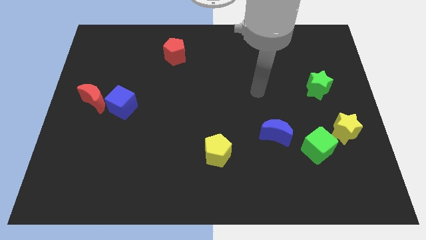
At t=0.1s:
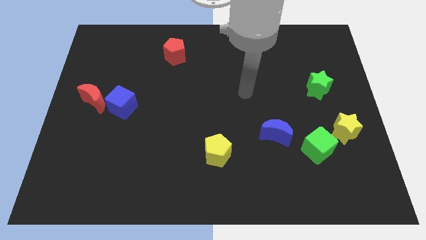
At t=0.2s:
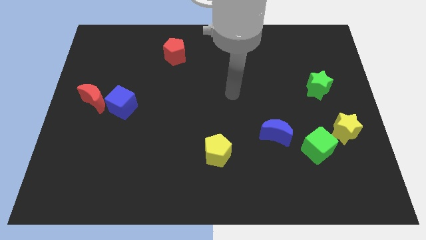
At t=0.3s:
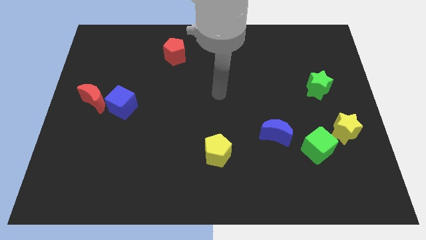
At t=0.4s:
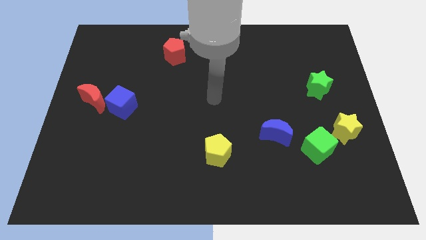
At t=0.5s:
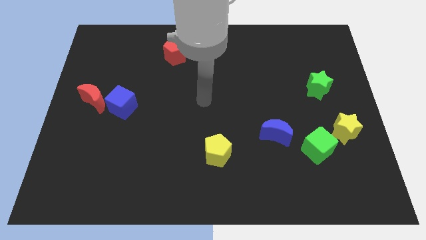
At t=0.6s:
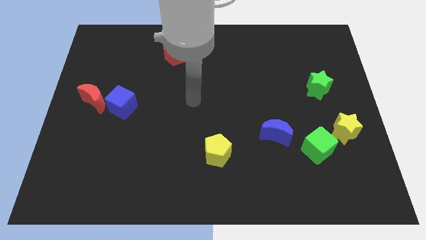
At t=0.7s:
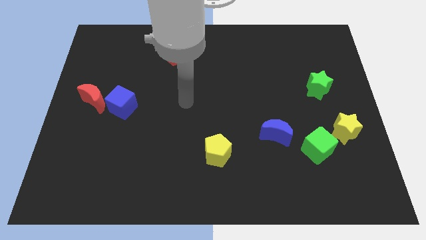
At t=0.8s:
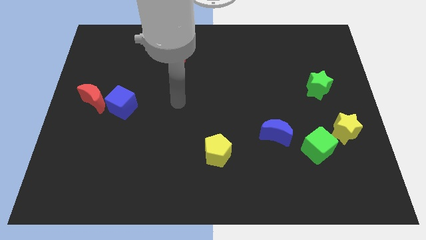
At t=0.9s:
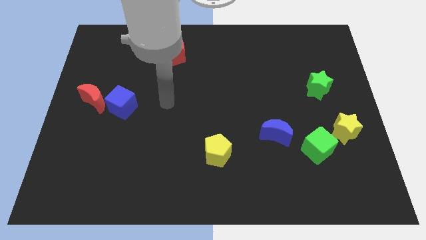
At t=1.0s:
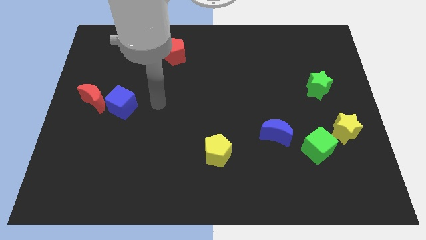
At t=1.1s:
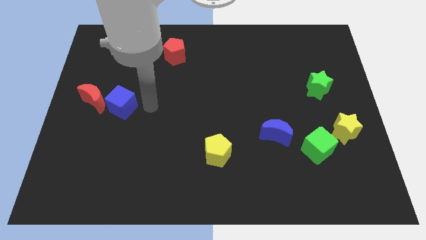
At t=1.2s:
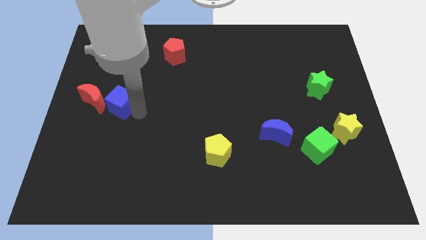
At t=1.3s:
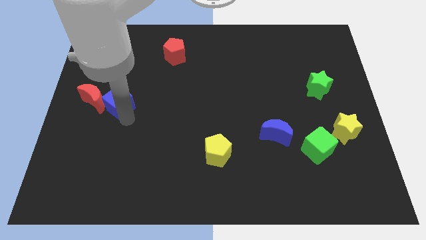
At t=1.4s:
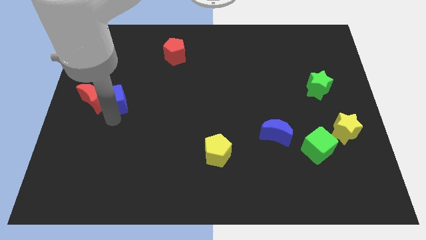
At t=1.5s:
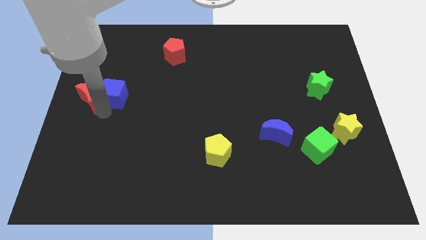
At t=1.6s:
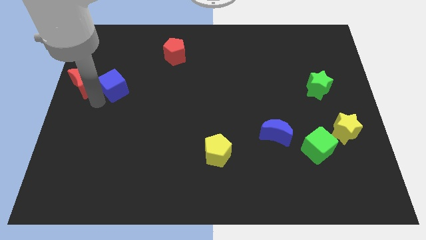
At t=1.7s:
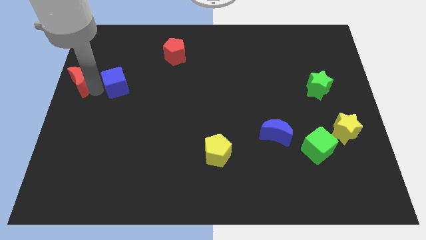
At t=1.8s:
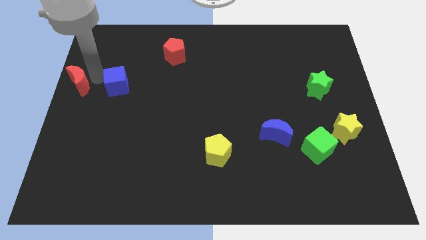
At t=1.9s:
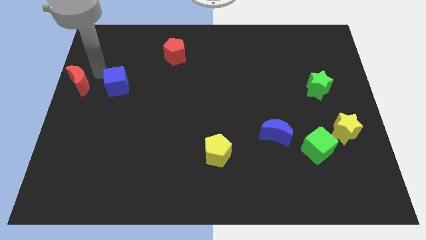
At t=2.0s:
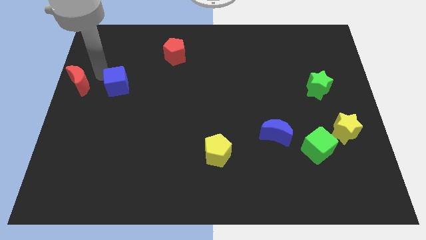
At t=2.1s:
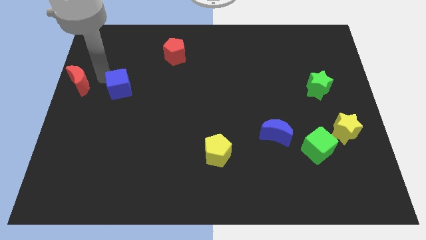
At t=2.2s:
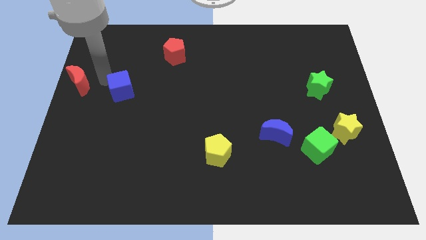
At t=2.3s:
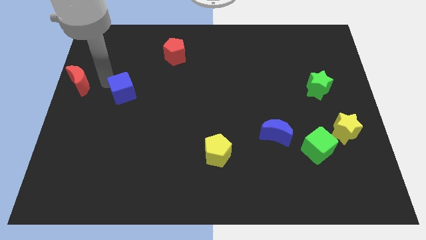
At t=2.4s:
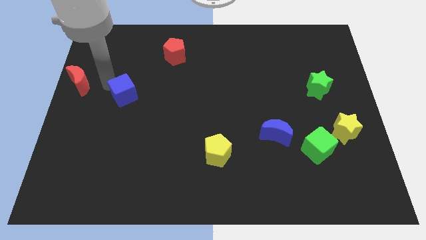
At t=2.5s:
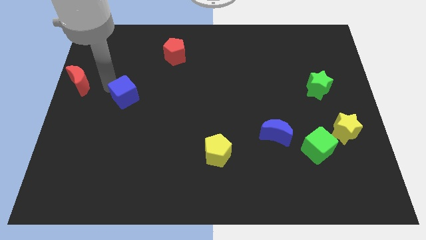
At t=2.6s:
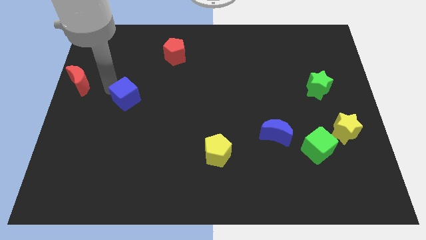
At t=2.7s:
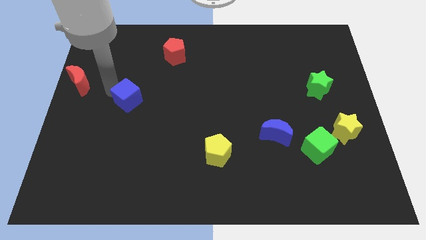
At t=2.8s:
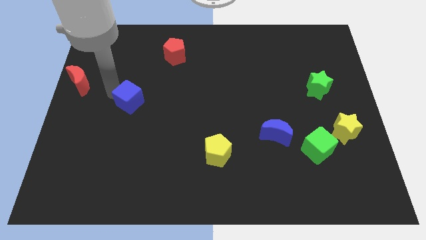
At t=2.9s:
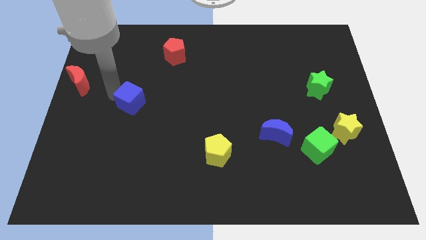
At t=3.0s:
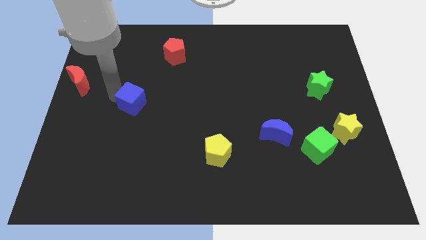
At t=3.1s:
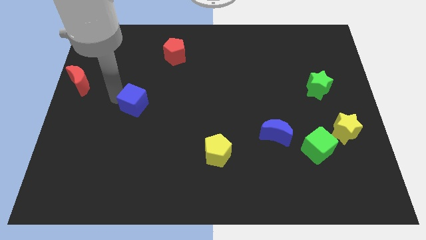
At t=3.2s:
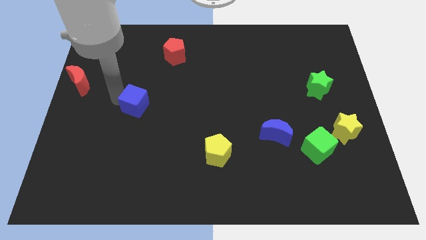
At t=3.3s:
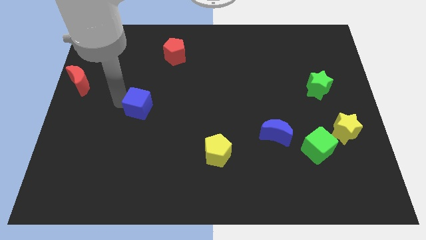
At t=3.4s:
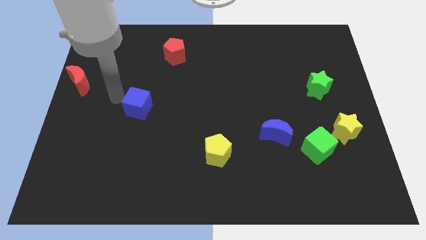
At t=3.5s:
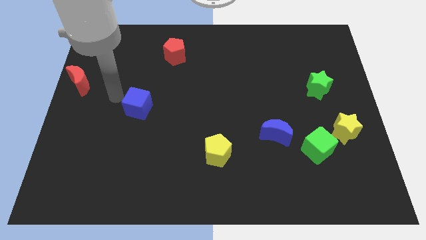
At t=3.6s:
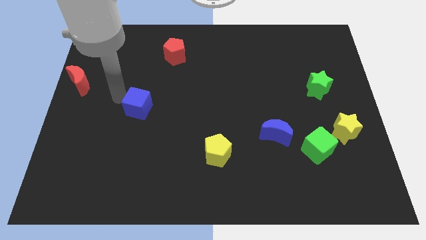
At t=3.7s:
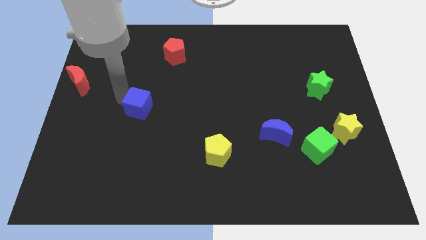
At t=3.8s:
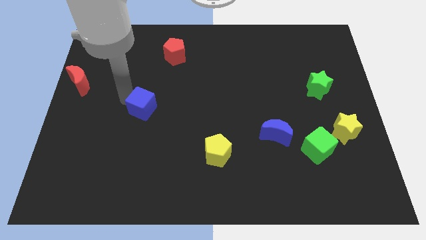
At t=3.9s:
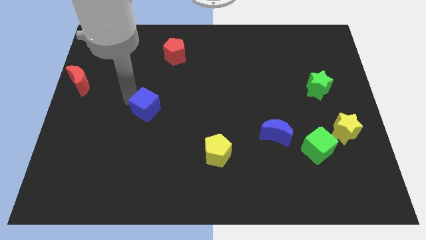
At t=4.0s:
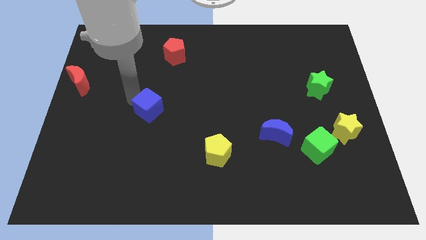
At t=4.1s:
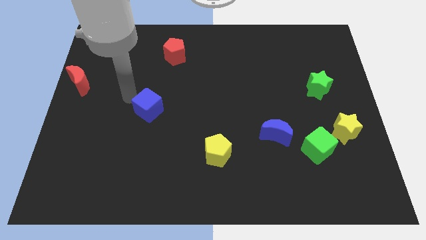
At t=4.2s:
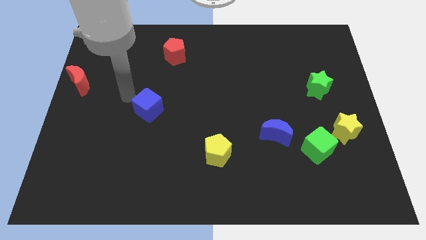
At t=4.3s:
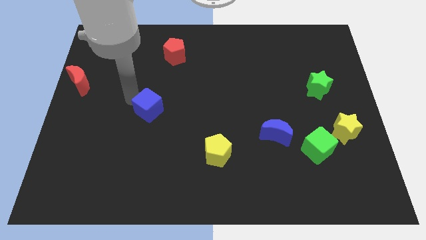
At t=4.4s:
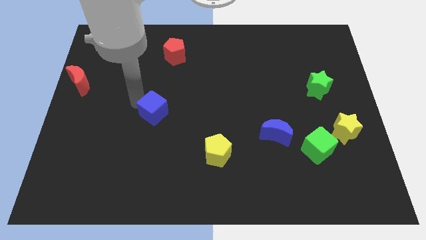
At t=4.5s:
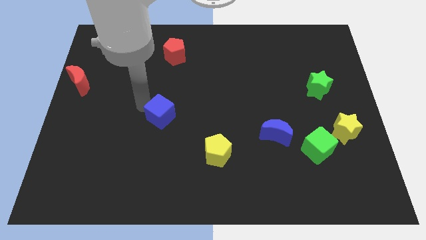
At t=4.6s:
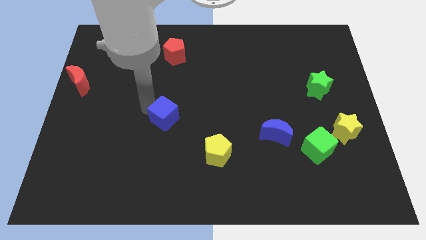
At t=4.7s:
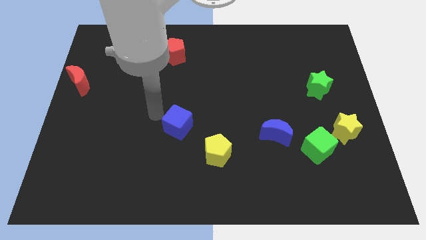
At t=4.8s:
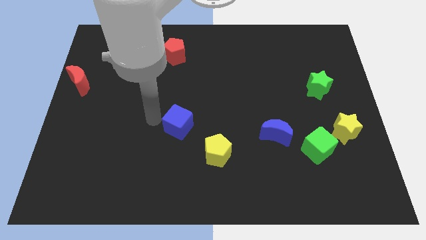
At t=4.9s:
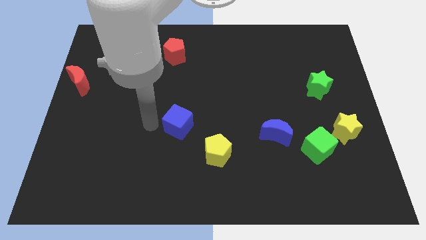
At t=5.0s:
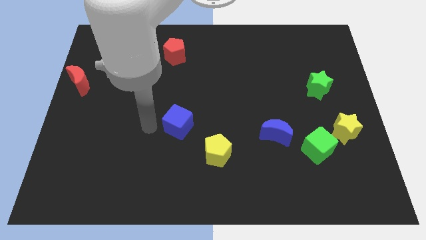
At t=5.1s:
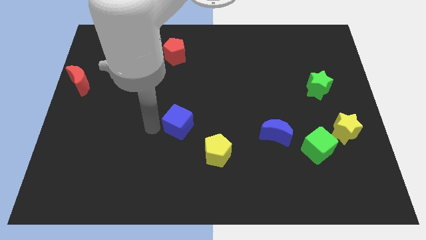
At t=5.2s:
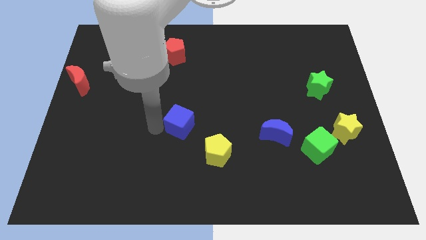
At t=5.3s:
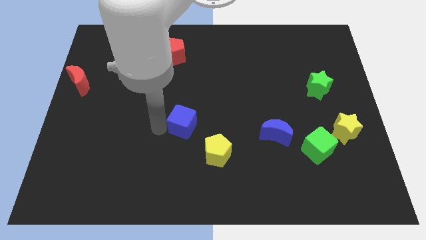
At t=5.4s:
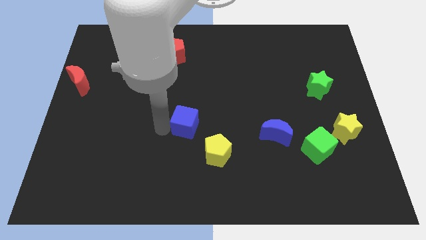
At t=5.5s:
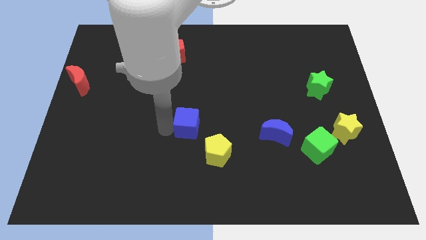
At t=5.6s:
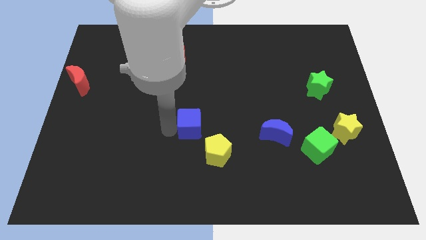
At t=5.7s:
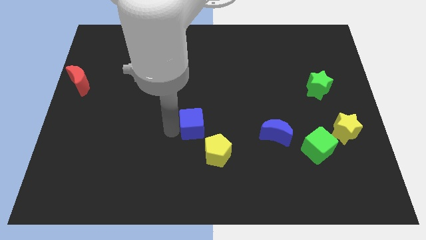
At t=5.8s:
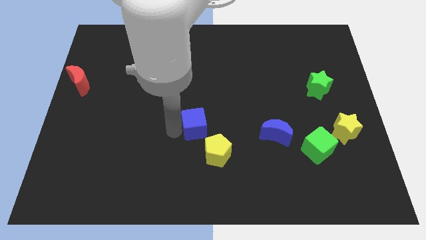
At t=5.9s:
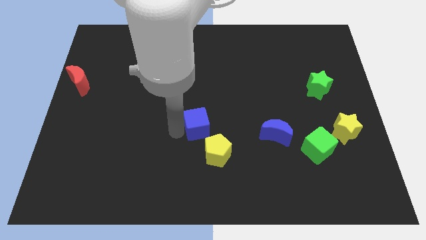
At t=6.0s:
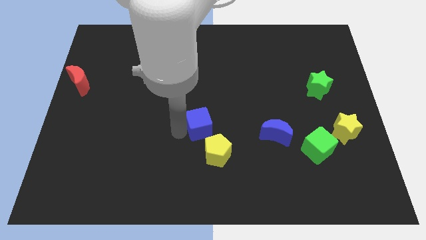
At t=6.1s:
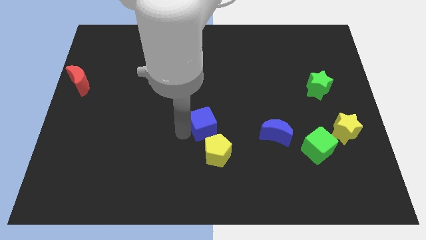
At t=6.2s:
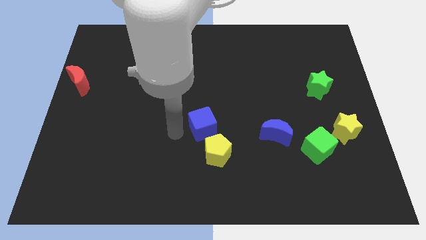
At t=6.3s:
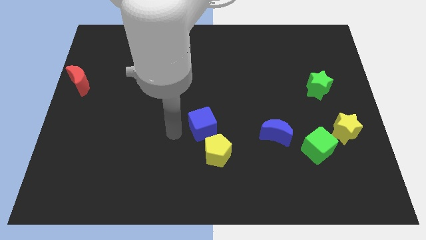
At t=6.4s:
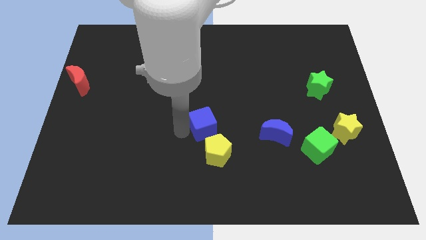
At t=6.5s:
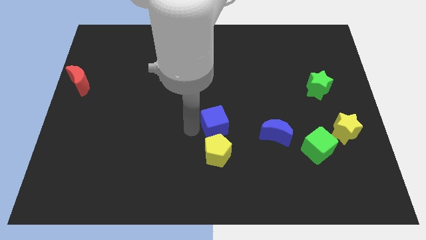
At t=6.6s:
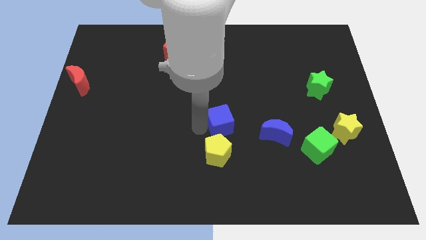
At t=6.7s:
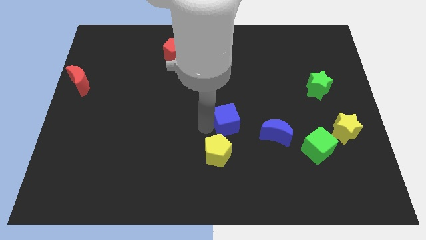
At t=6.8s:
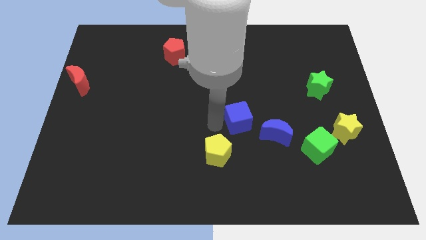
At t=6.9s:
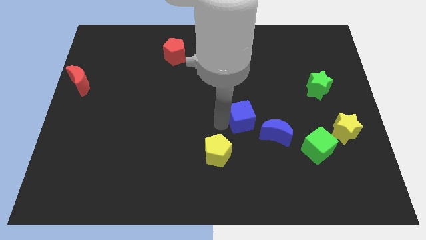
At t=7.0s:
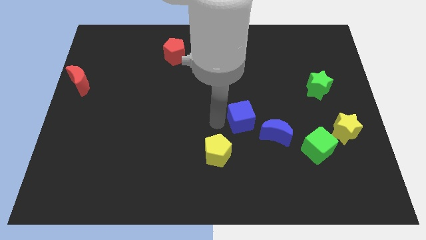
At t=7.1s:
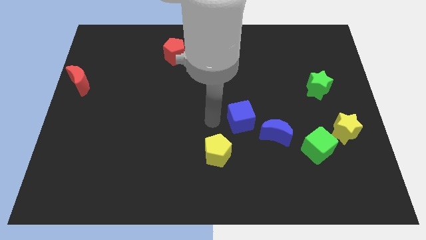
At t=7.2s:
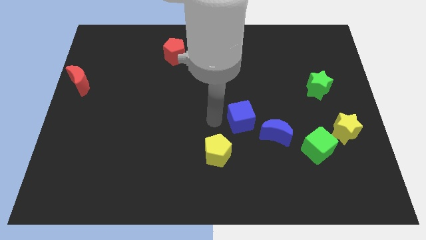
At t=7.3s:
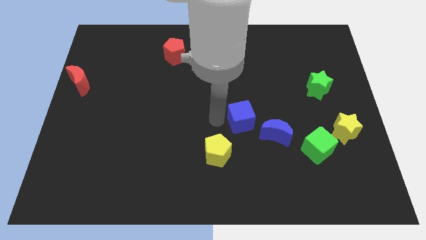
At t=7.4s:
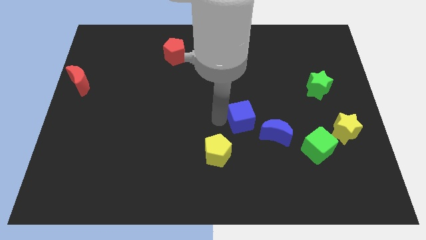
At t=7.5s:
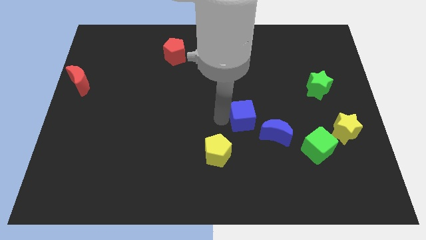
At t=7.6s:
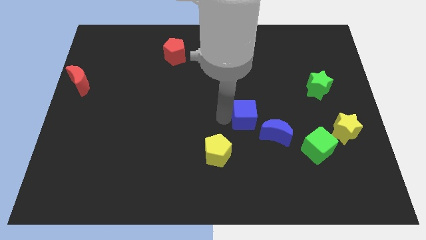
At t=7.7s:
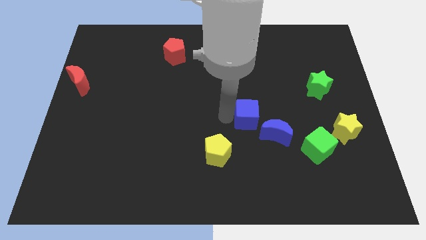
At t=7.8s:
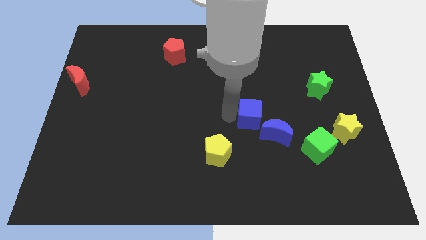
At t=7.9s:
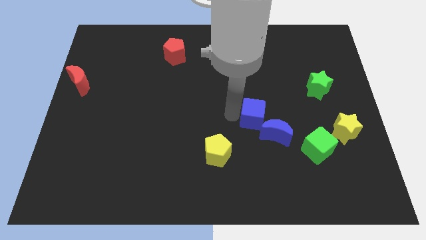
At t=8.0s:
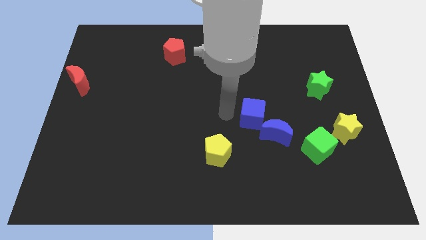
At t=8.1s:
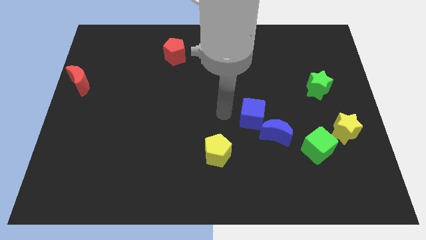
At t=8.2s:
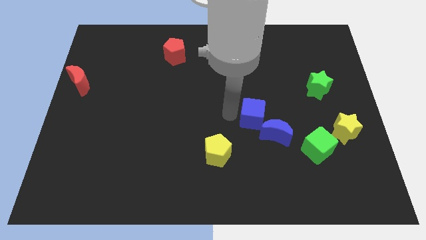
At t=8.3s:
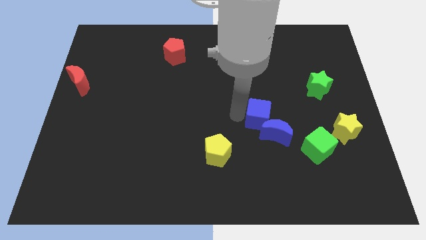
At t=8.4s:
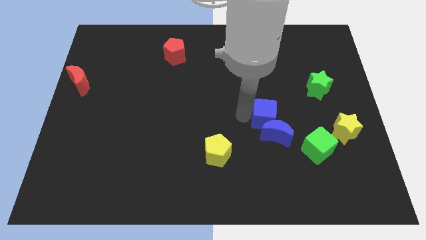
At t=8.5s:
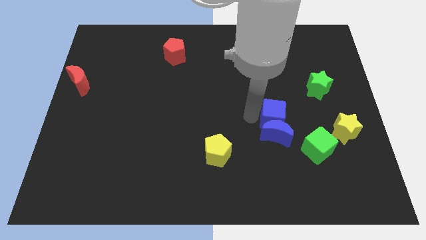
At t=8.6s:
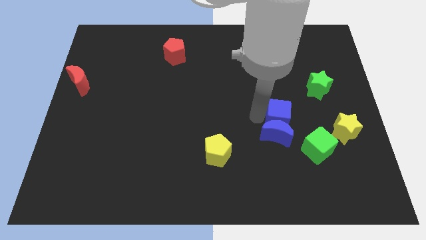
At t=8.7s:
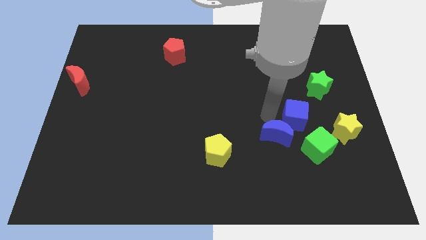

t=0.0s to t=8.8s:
slide the blue cube just right of the blue moon
